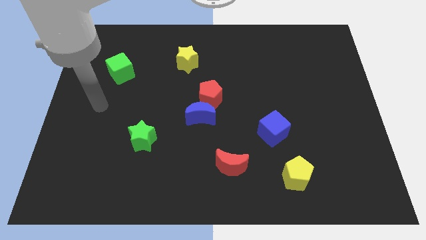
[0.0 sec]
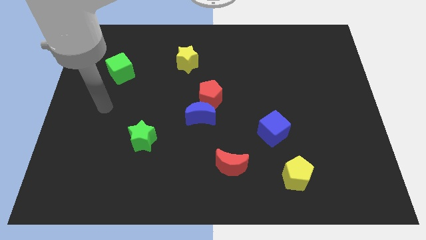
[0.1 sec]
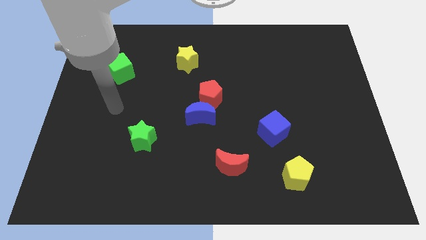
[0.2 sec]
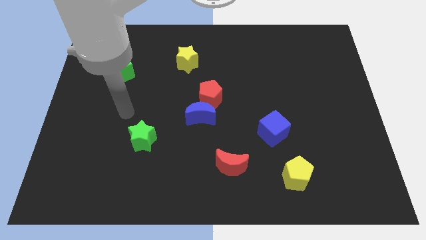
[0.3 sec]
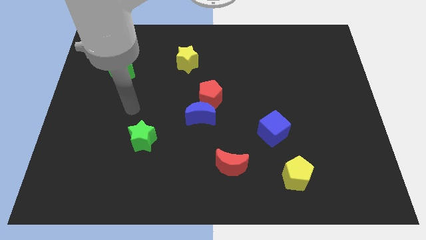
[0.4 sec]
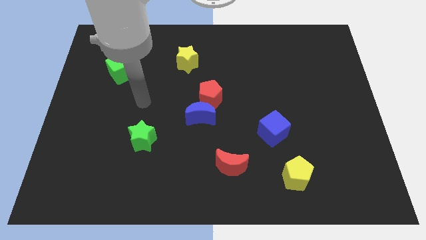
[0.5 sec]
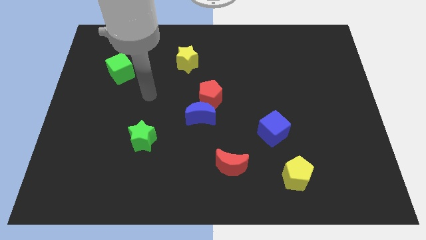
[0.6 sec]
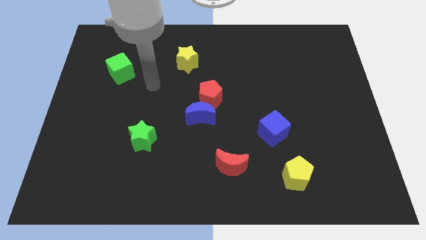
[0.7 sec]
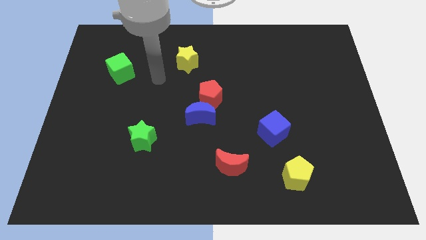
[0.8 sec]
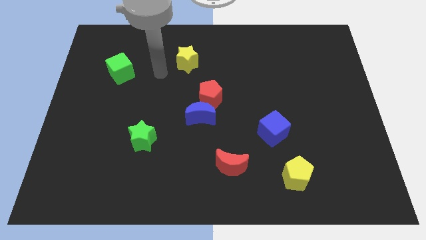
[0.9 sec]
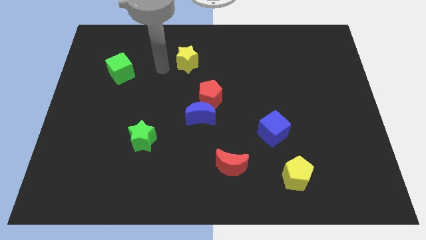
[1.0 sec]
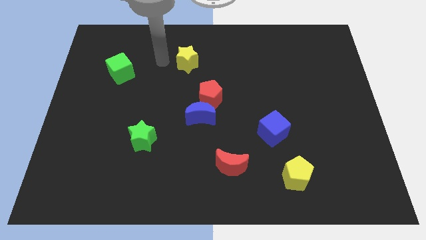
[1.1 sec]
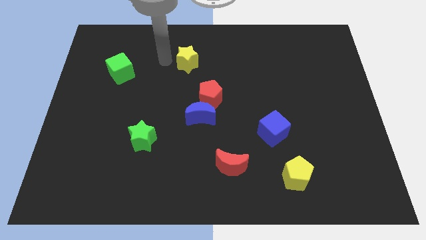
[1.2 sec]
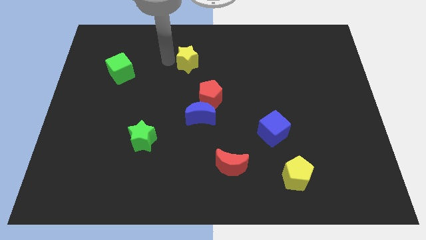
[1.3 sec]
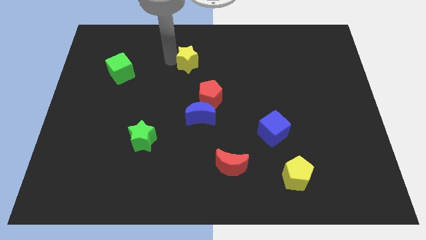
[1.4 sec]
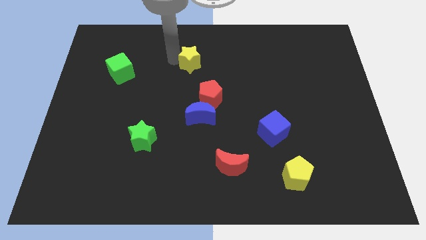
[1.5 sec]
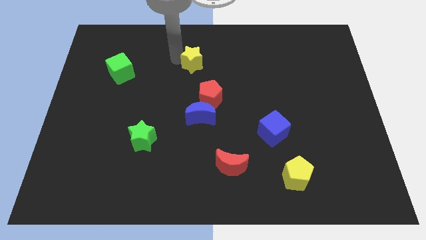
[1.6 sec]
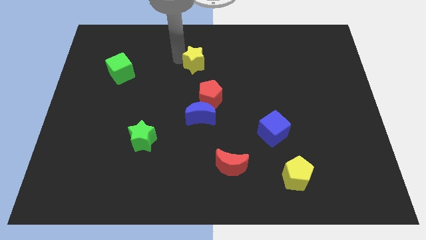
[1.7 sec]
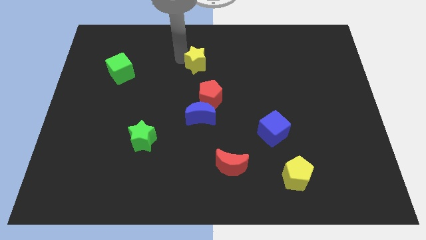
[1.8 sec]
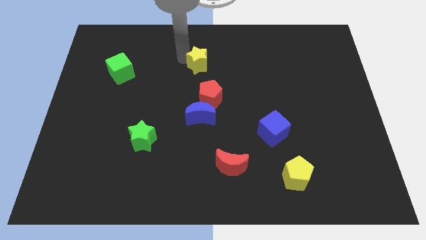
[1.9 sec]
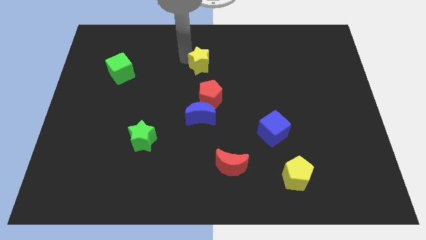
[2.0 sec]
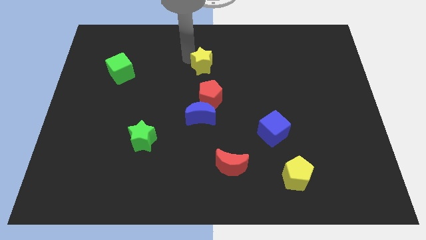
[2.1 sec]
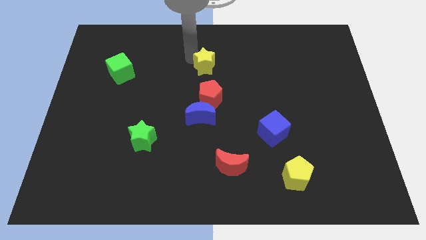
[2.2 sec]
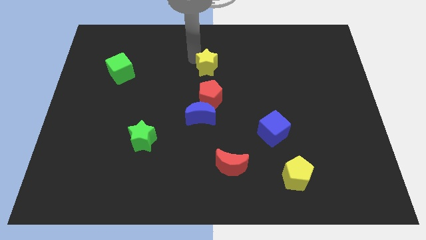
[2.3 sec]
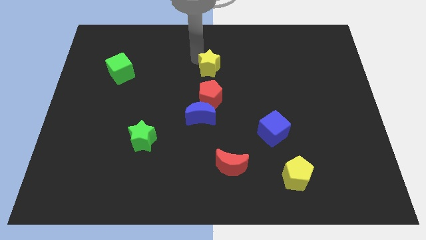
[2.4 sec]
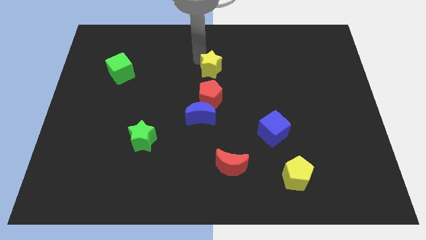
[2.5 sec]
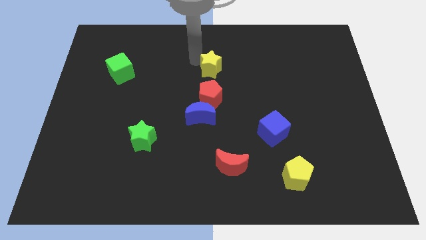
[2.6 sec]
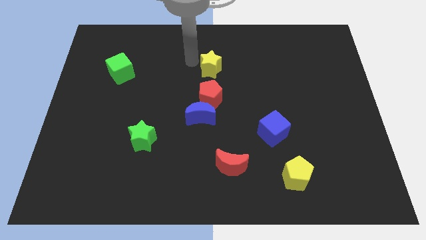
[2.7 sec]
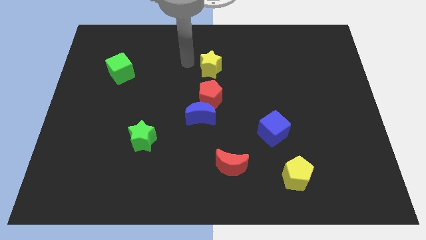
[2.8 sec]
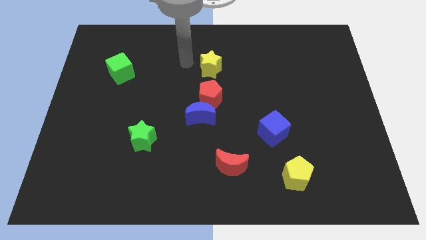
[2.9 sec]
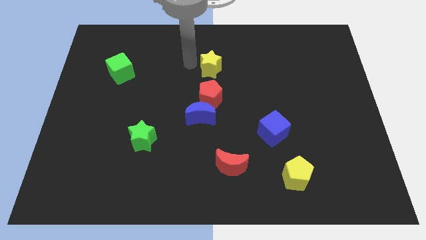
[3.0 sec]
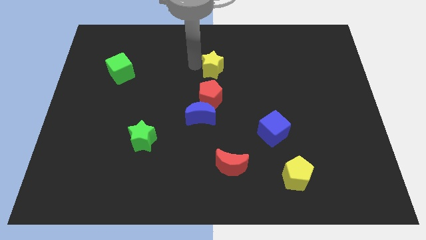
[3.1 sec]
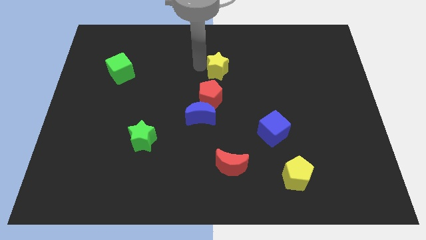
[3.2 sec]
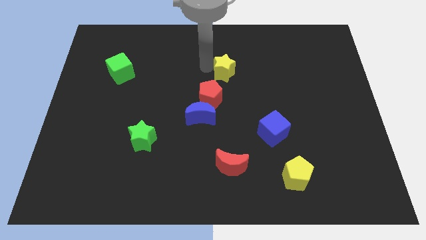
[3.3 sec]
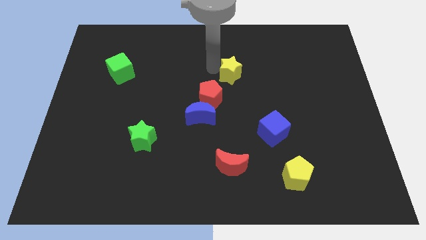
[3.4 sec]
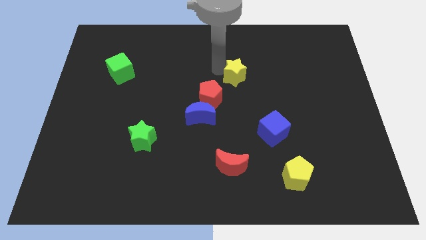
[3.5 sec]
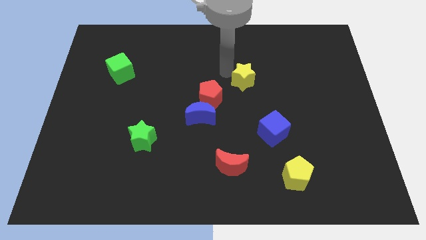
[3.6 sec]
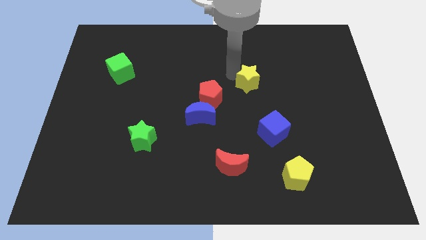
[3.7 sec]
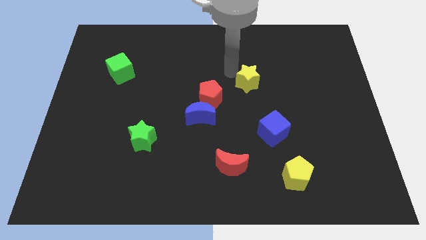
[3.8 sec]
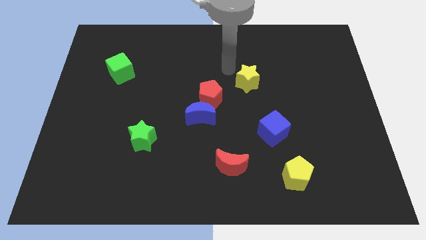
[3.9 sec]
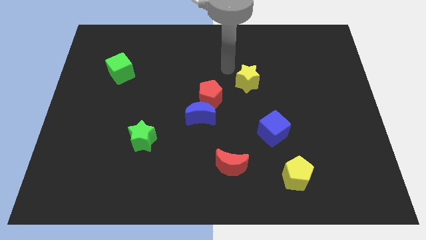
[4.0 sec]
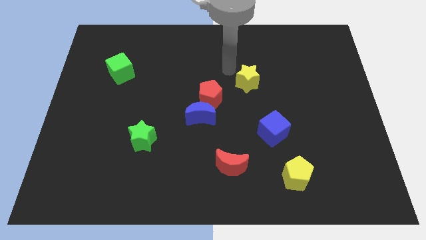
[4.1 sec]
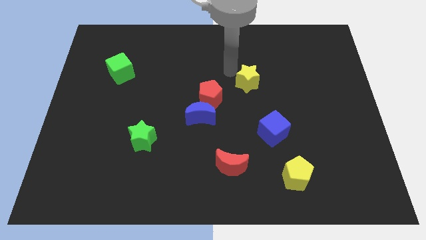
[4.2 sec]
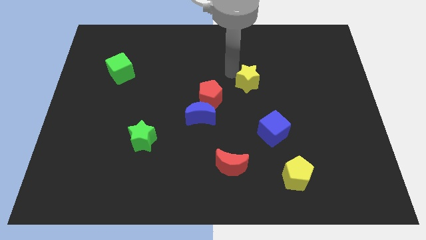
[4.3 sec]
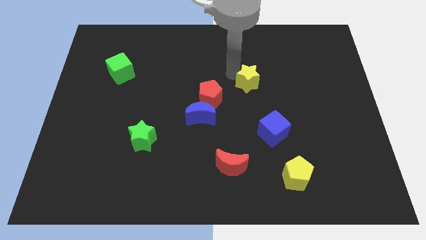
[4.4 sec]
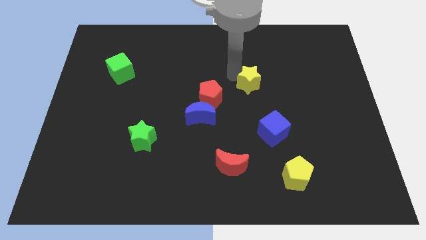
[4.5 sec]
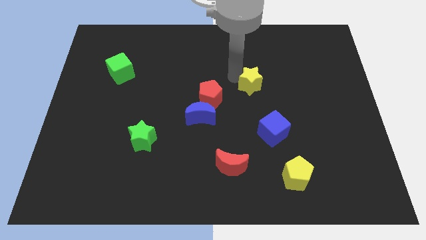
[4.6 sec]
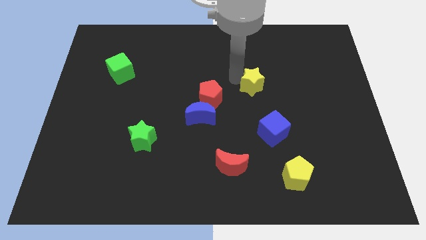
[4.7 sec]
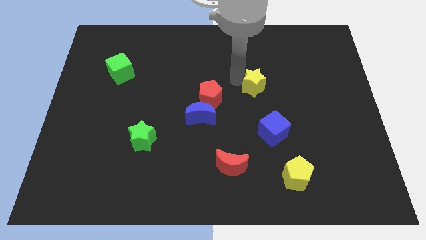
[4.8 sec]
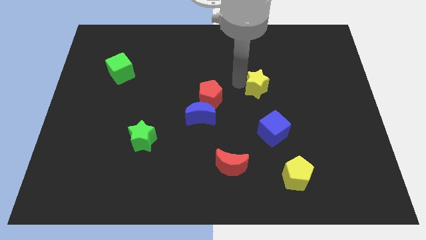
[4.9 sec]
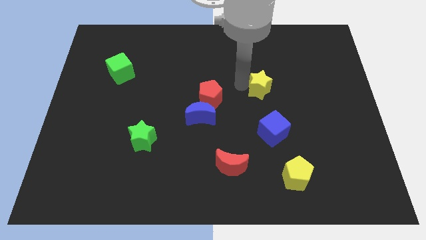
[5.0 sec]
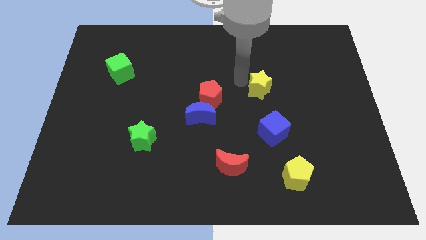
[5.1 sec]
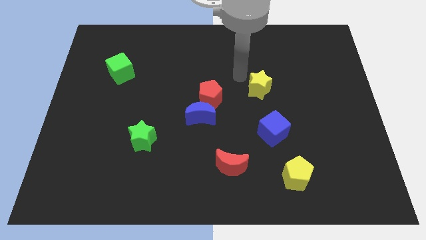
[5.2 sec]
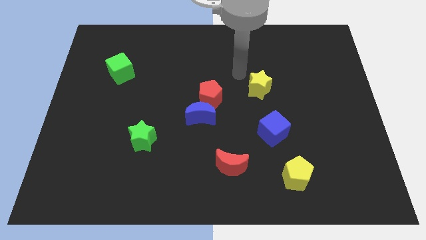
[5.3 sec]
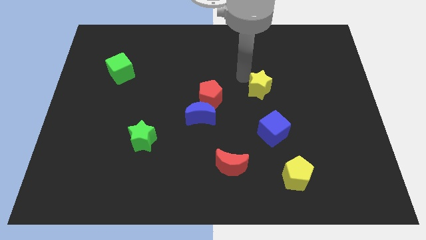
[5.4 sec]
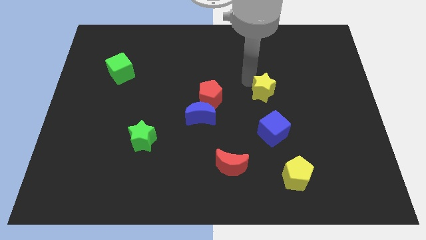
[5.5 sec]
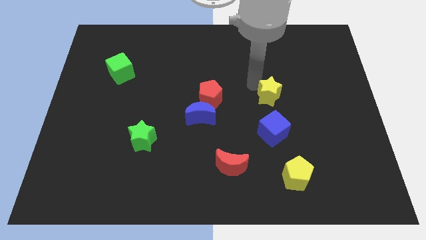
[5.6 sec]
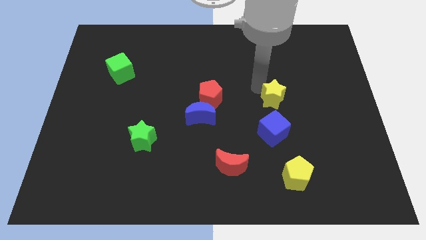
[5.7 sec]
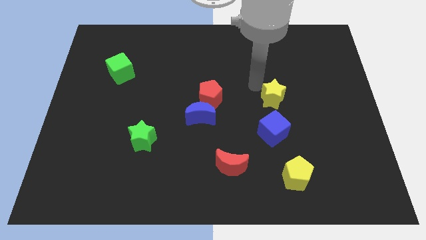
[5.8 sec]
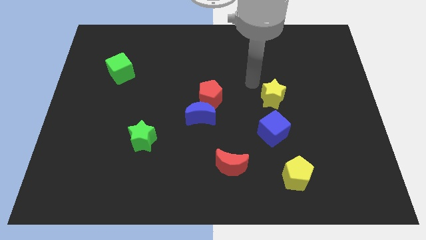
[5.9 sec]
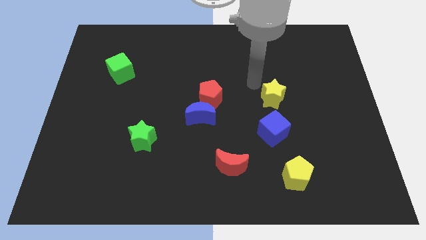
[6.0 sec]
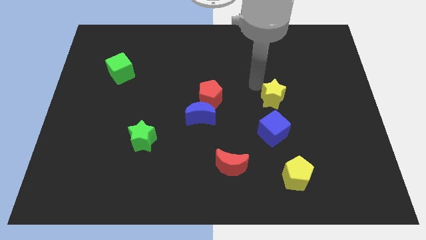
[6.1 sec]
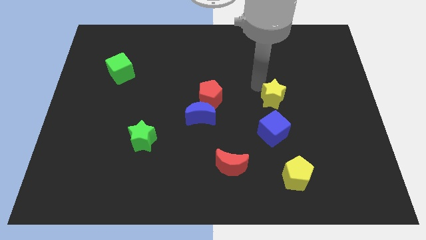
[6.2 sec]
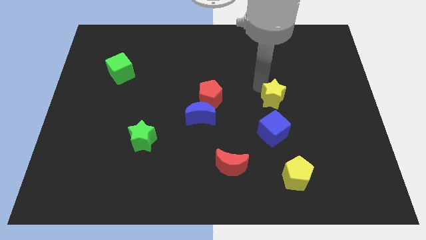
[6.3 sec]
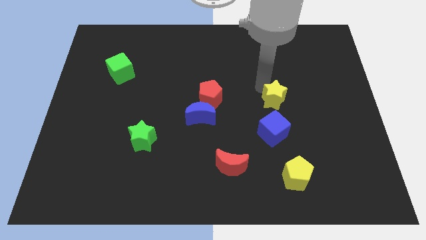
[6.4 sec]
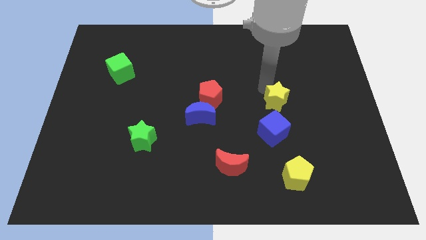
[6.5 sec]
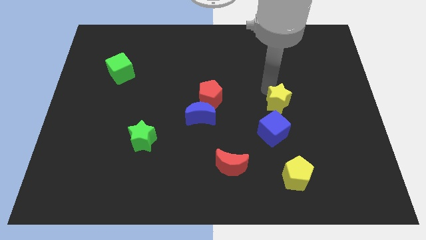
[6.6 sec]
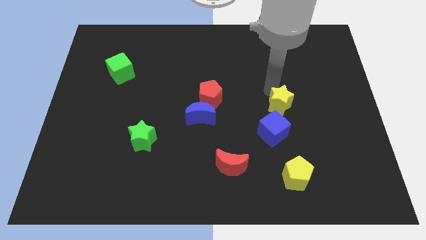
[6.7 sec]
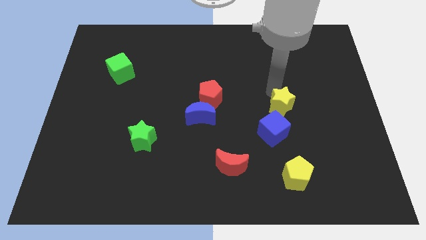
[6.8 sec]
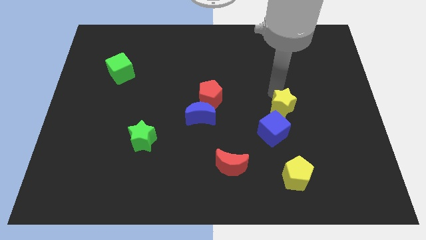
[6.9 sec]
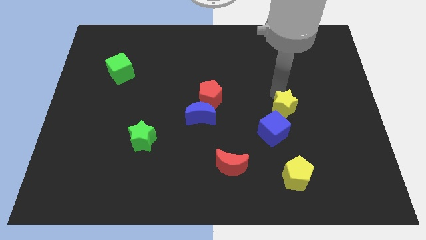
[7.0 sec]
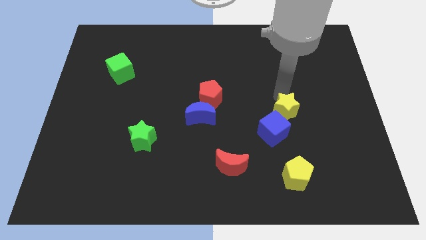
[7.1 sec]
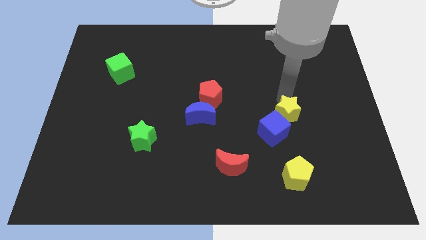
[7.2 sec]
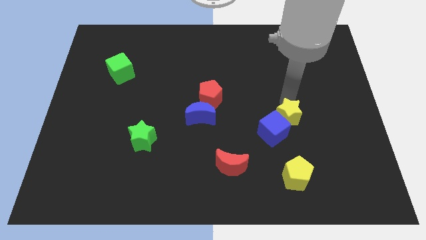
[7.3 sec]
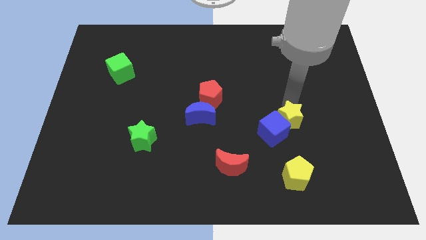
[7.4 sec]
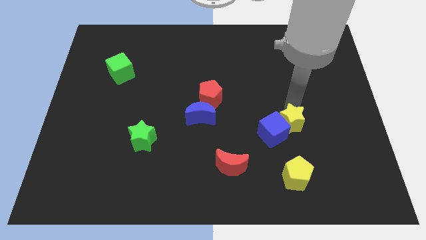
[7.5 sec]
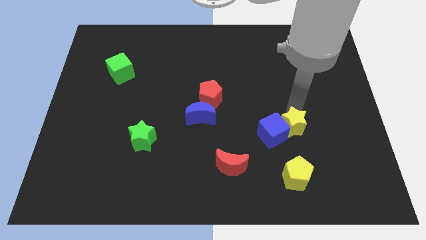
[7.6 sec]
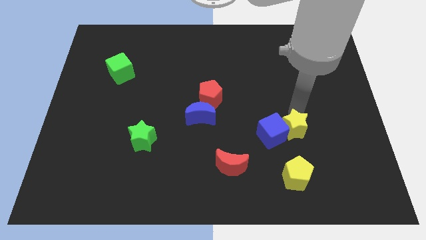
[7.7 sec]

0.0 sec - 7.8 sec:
put the yellow star to the bottom right side of the blue cube
